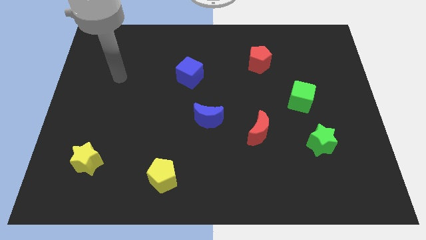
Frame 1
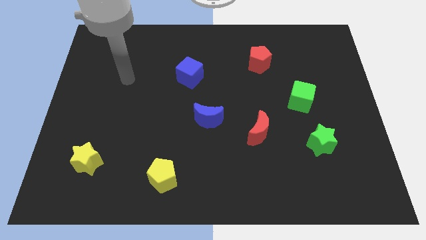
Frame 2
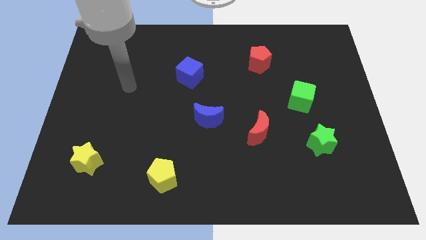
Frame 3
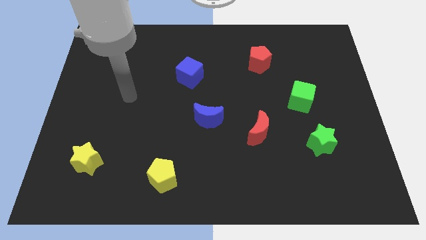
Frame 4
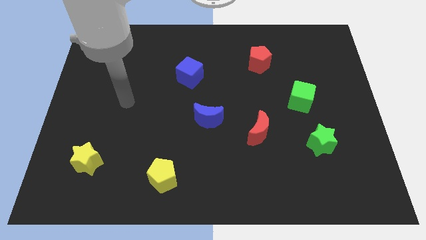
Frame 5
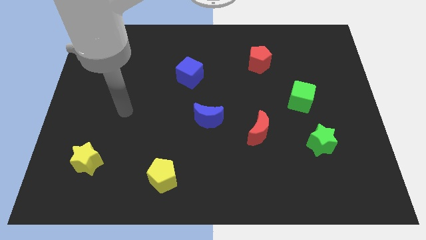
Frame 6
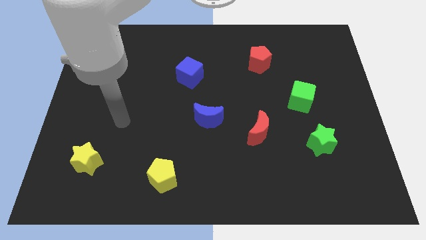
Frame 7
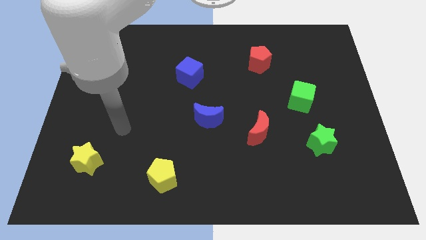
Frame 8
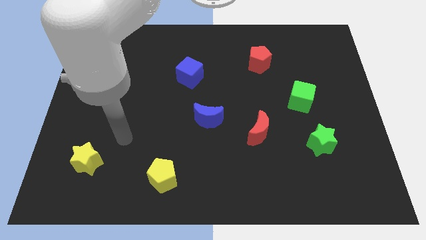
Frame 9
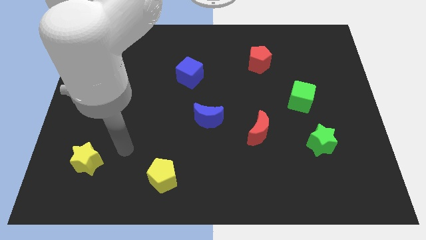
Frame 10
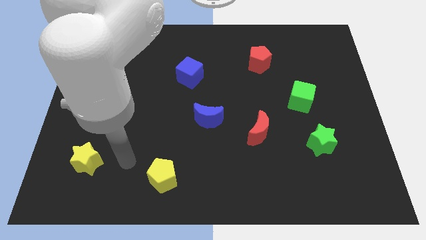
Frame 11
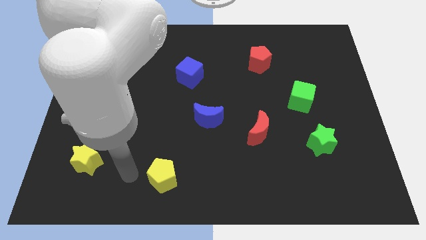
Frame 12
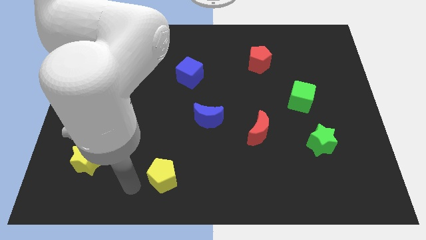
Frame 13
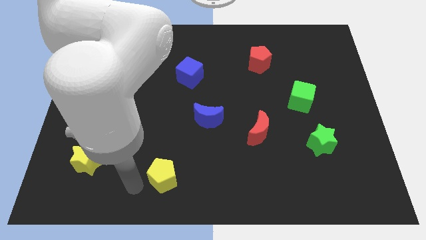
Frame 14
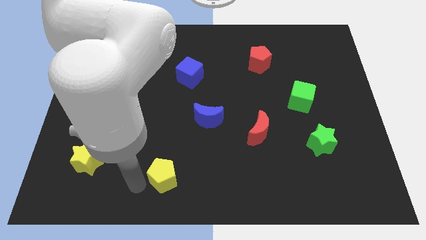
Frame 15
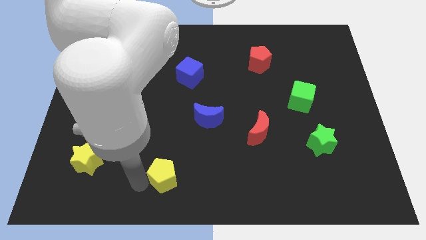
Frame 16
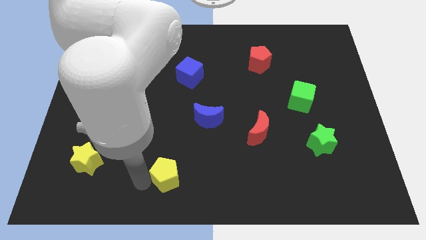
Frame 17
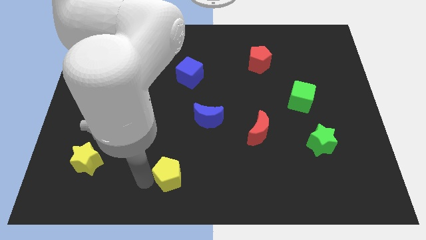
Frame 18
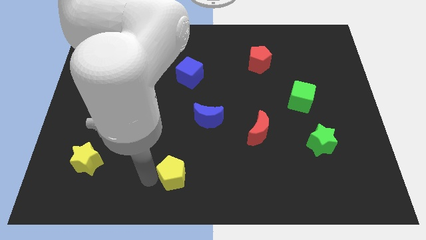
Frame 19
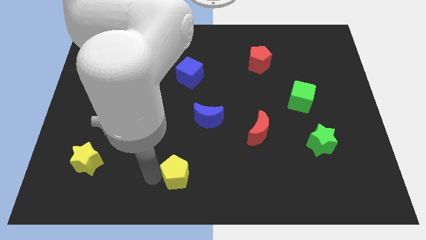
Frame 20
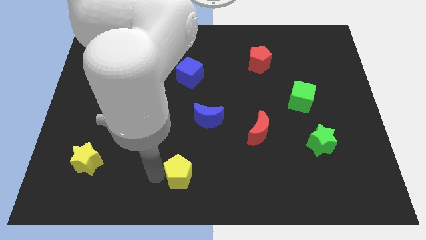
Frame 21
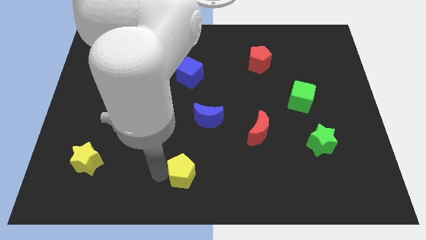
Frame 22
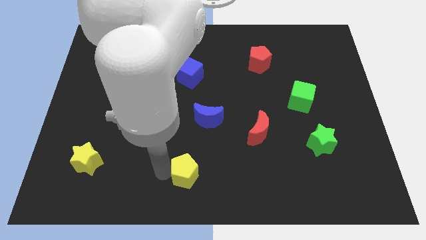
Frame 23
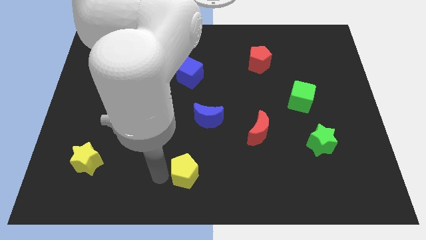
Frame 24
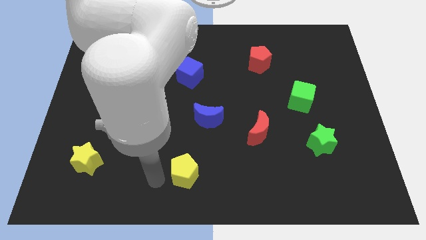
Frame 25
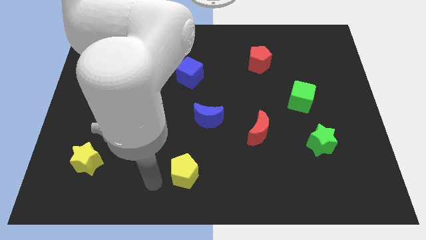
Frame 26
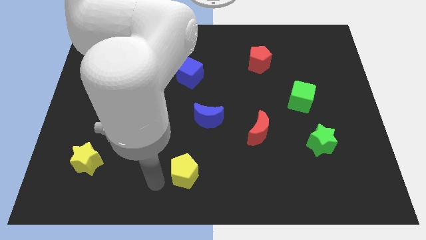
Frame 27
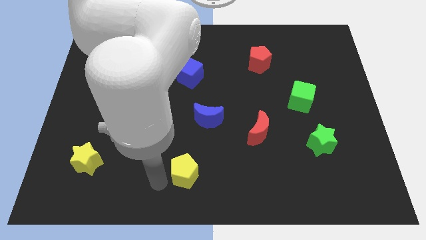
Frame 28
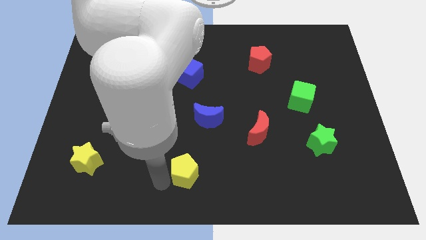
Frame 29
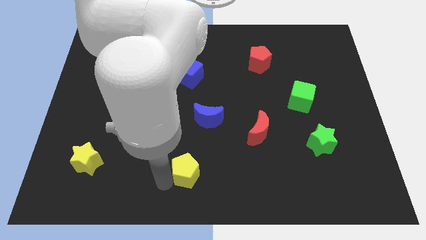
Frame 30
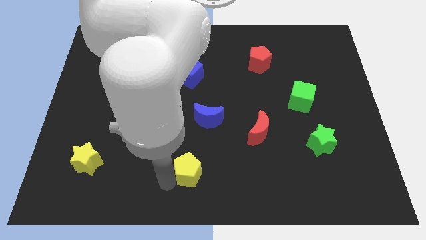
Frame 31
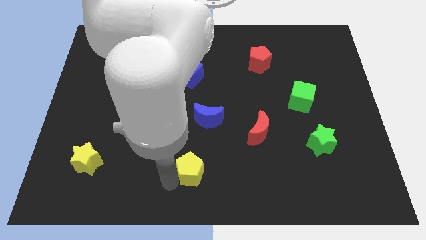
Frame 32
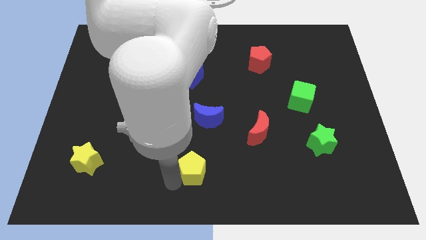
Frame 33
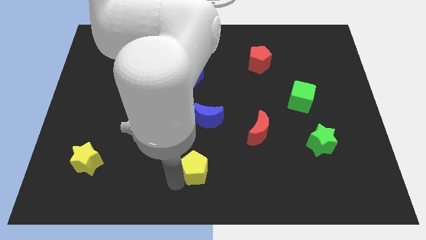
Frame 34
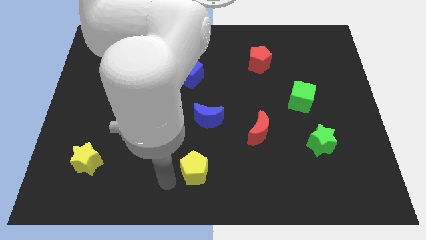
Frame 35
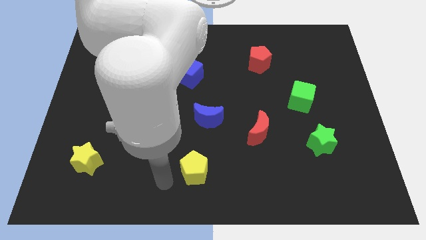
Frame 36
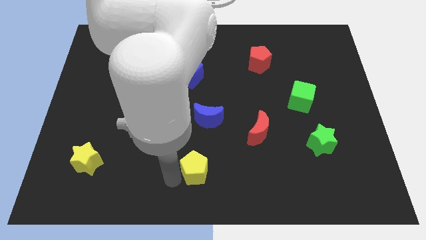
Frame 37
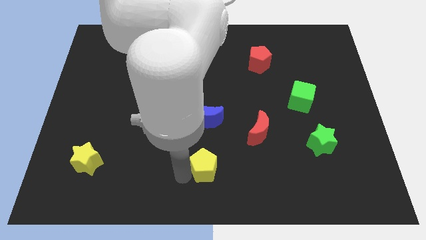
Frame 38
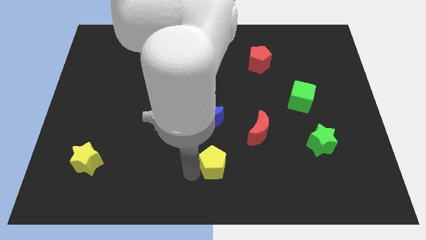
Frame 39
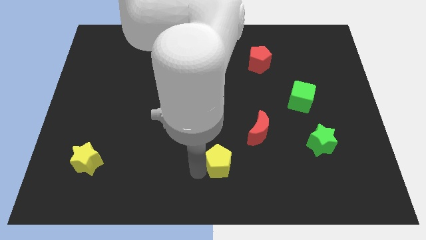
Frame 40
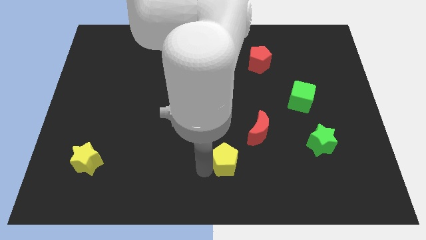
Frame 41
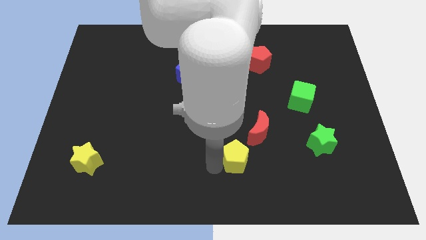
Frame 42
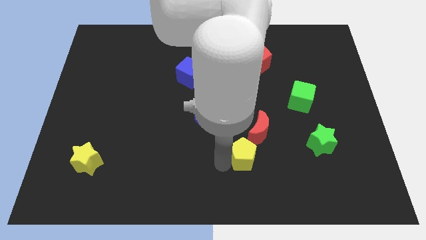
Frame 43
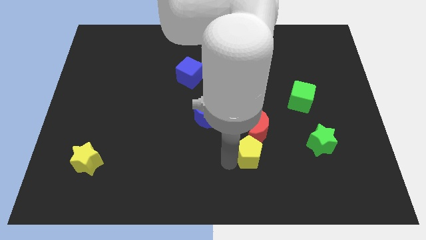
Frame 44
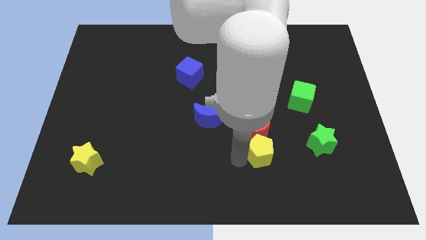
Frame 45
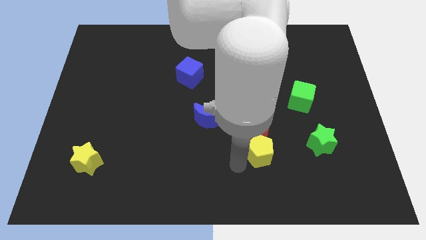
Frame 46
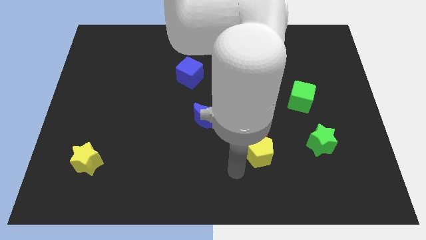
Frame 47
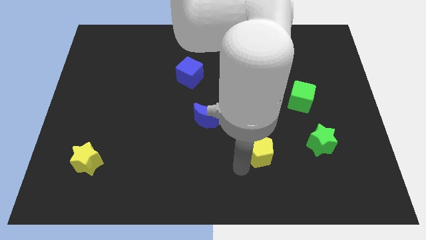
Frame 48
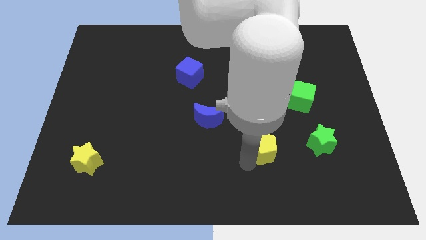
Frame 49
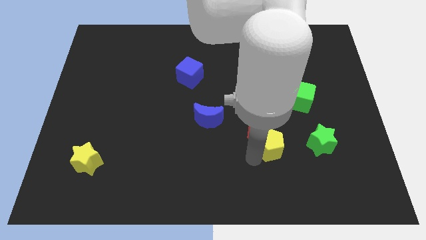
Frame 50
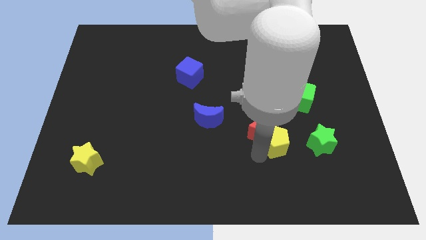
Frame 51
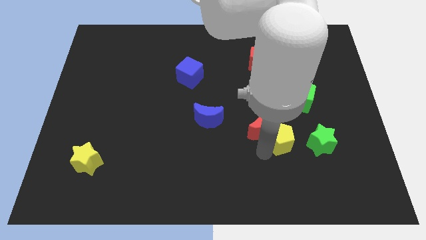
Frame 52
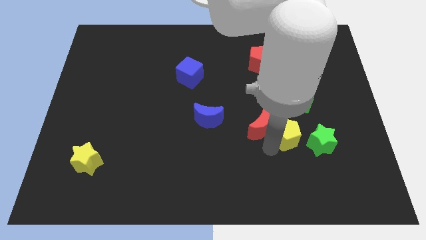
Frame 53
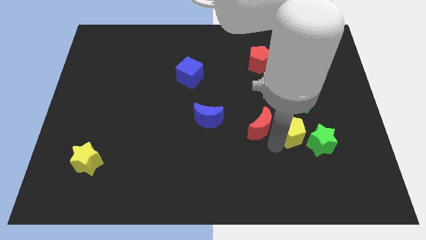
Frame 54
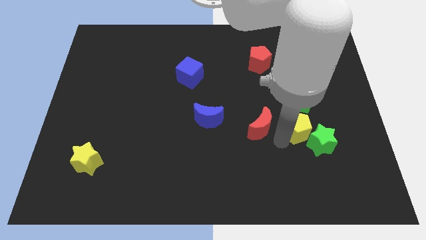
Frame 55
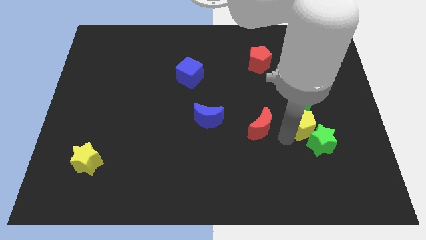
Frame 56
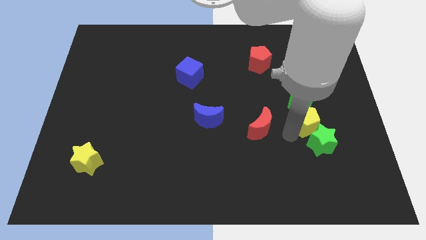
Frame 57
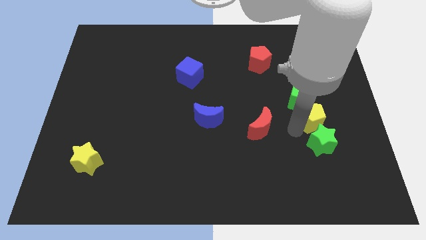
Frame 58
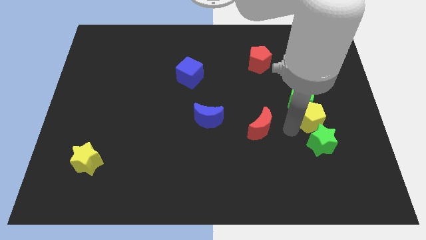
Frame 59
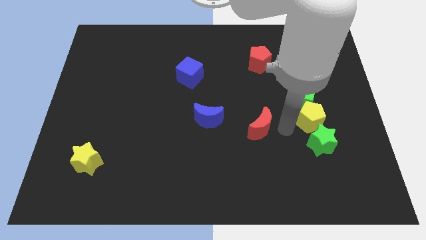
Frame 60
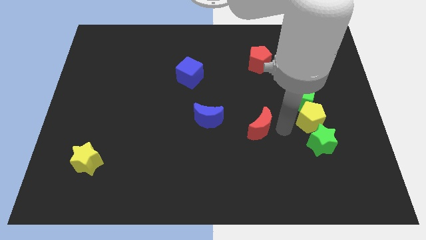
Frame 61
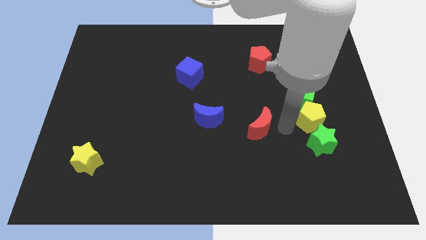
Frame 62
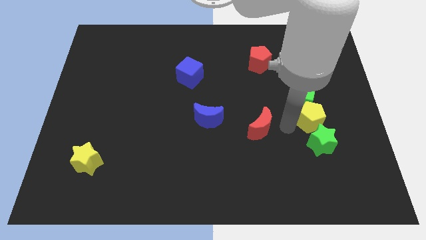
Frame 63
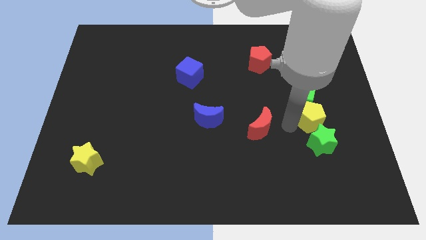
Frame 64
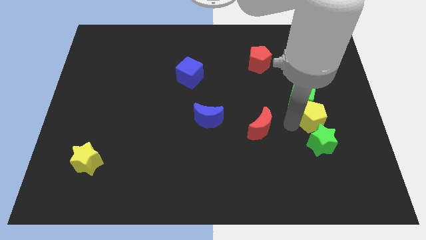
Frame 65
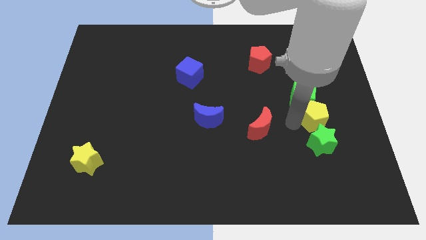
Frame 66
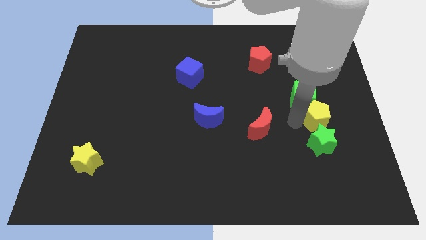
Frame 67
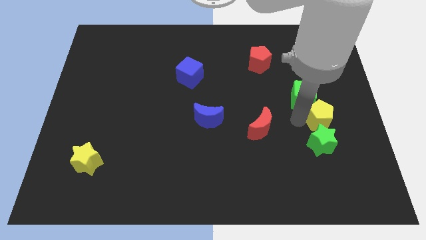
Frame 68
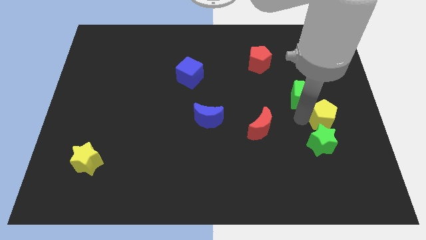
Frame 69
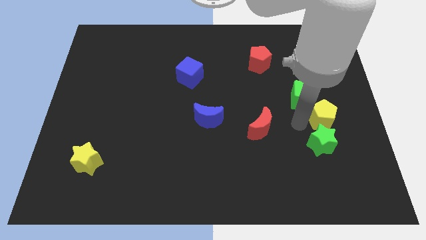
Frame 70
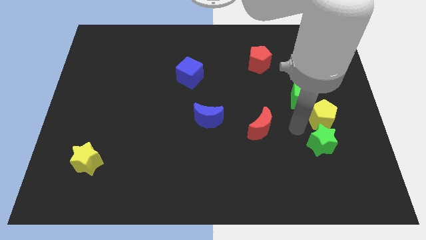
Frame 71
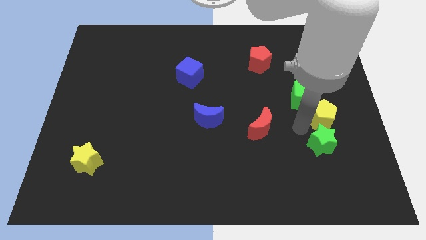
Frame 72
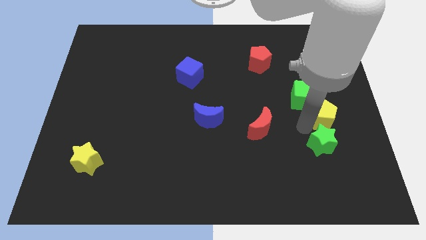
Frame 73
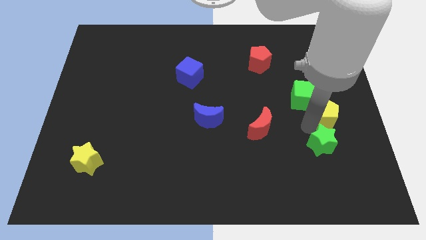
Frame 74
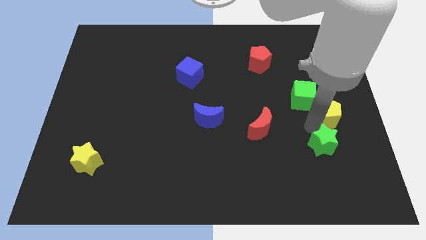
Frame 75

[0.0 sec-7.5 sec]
push the yellow pentagon to the right side
